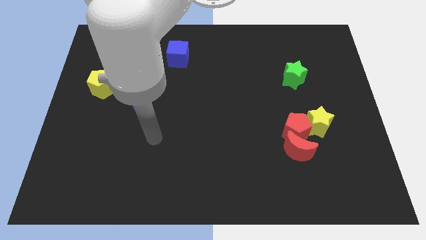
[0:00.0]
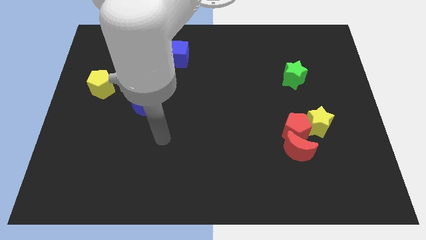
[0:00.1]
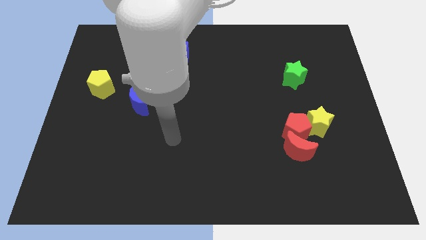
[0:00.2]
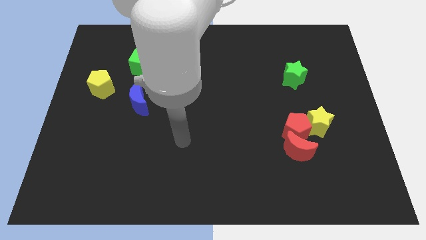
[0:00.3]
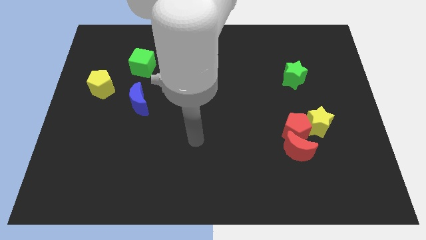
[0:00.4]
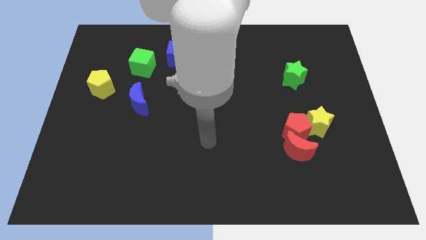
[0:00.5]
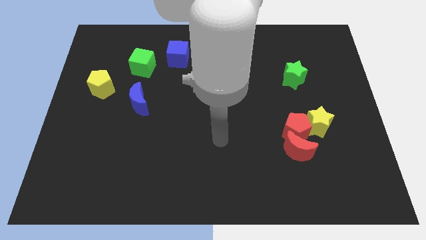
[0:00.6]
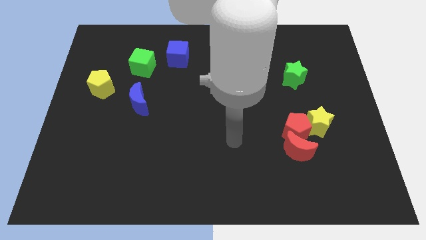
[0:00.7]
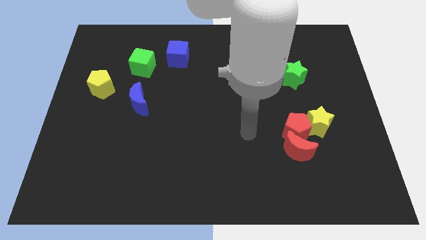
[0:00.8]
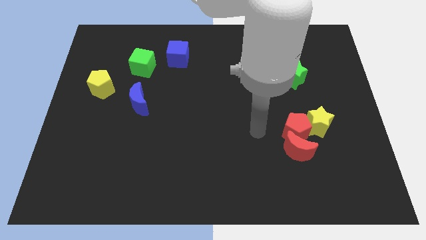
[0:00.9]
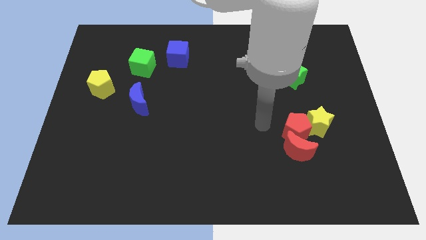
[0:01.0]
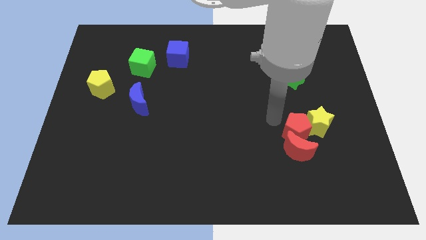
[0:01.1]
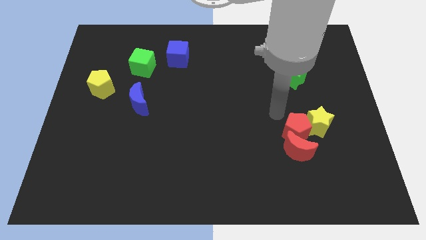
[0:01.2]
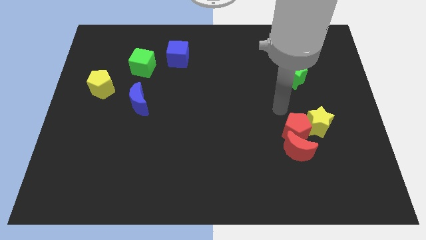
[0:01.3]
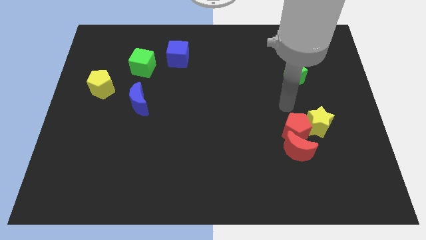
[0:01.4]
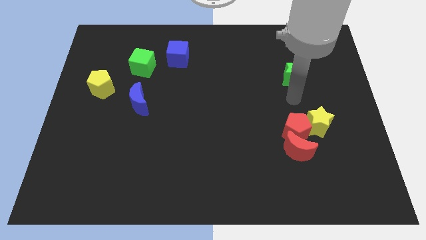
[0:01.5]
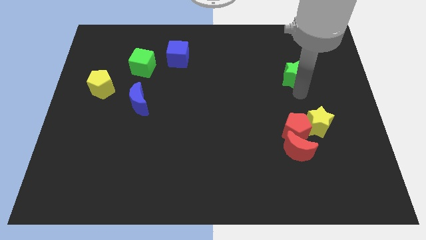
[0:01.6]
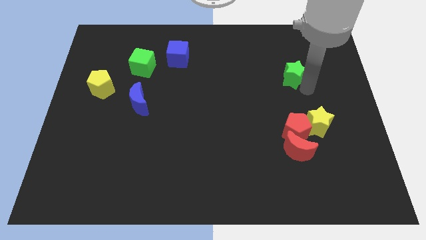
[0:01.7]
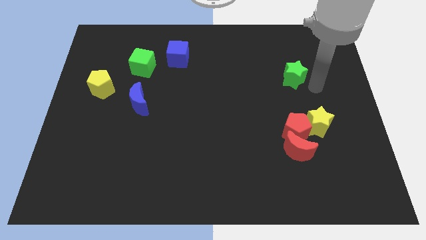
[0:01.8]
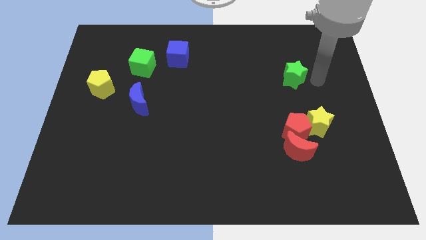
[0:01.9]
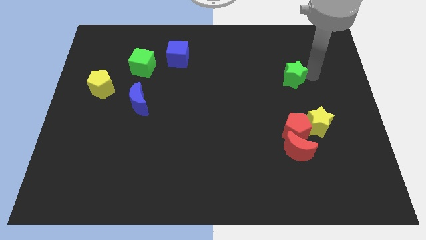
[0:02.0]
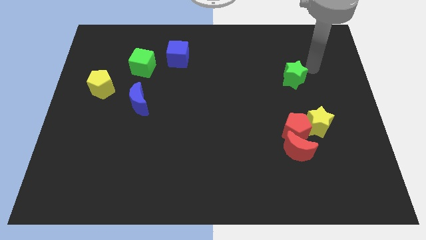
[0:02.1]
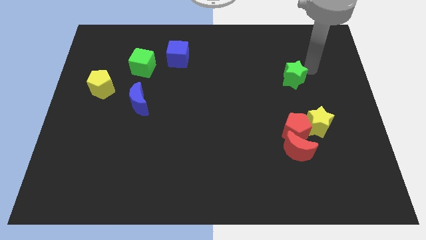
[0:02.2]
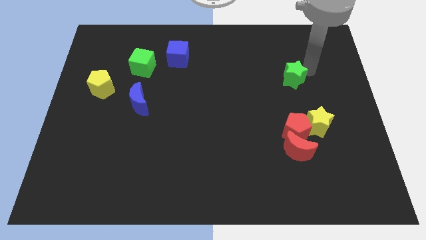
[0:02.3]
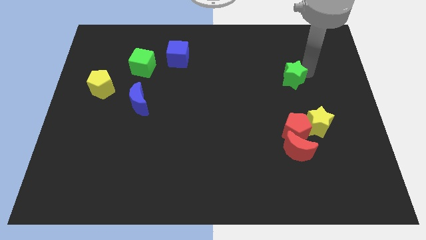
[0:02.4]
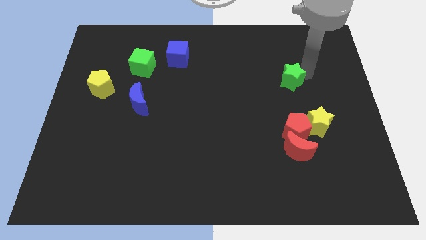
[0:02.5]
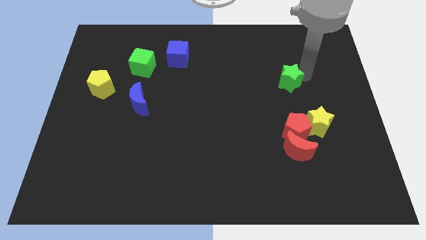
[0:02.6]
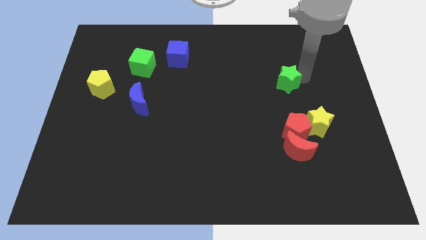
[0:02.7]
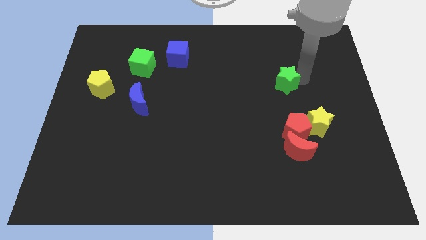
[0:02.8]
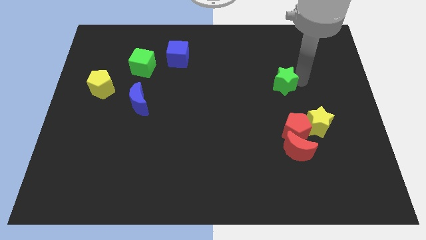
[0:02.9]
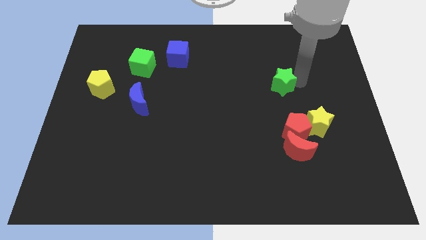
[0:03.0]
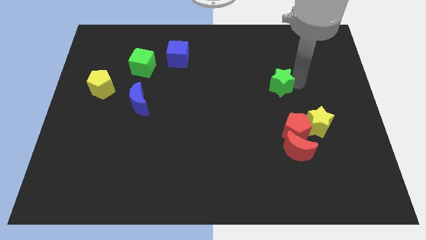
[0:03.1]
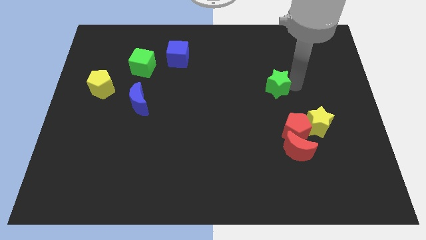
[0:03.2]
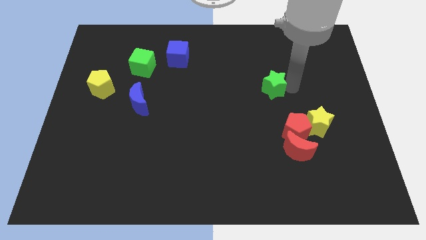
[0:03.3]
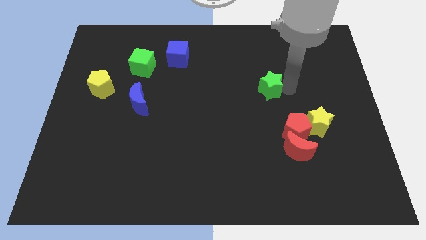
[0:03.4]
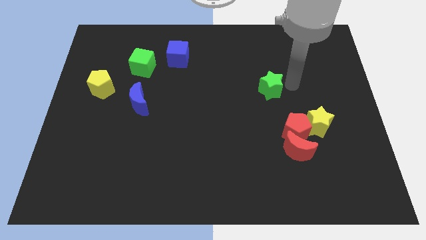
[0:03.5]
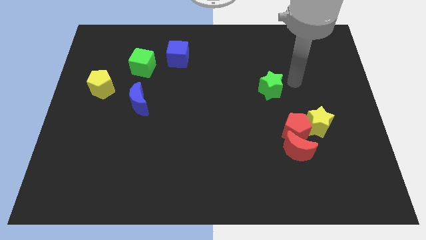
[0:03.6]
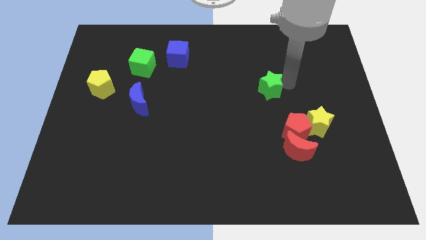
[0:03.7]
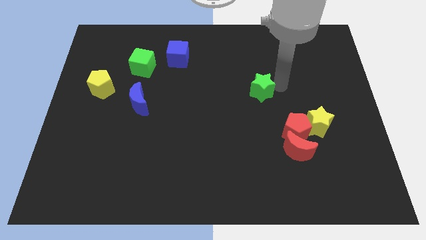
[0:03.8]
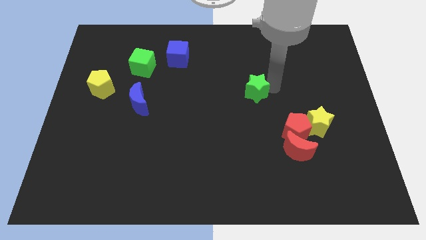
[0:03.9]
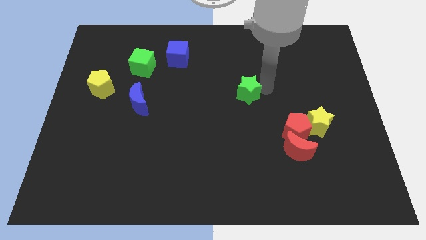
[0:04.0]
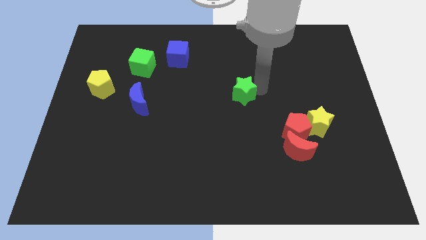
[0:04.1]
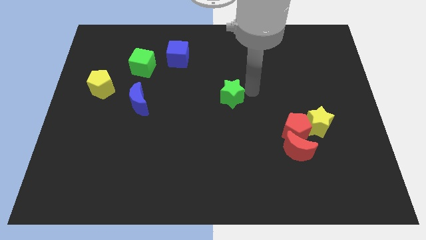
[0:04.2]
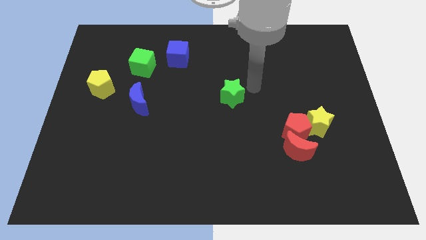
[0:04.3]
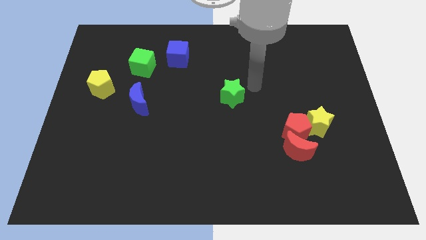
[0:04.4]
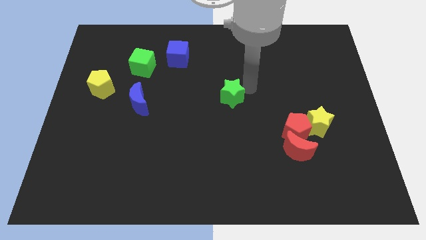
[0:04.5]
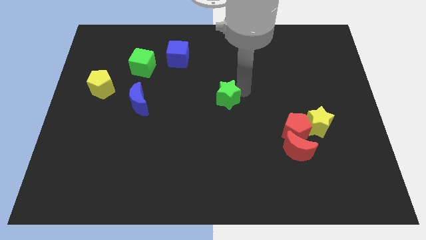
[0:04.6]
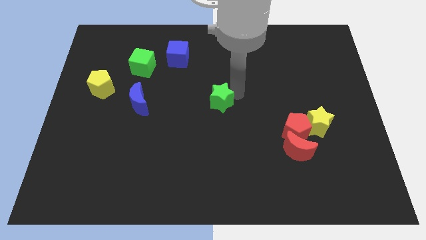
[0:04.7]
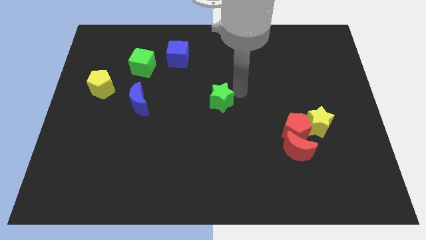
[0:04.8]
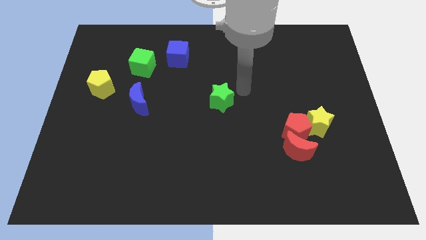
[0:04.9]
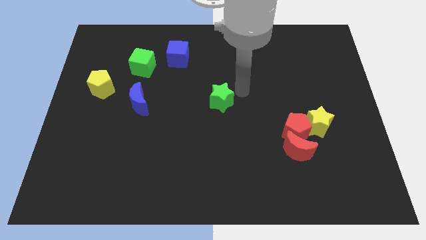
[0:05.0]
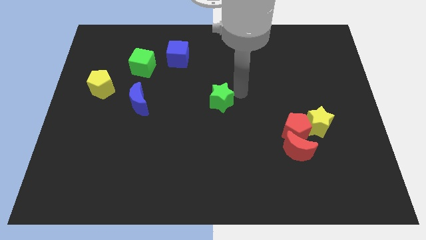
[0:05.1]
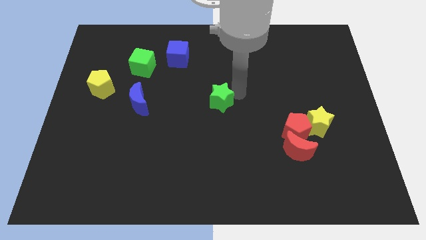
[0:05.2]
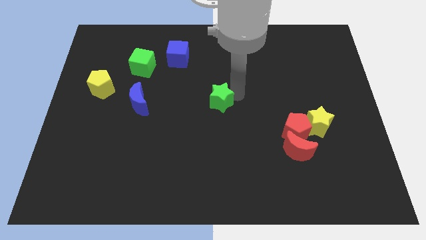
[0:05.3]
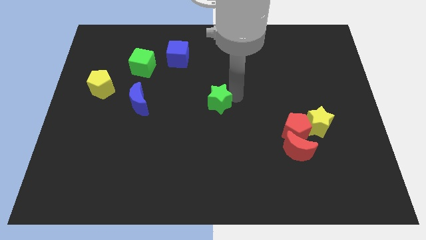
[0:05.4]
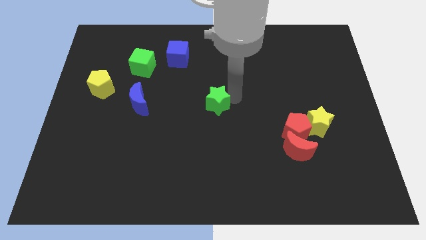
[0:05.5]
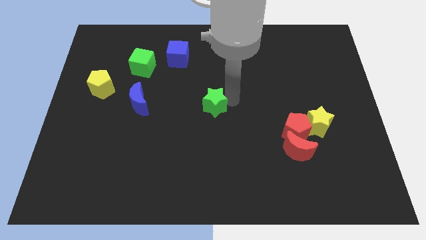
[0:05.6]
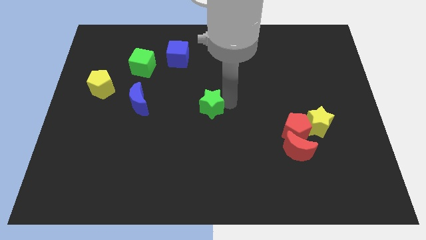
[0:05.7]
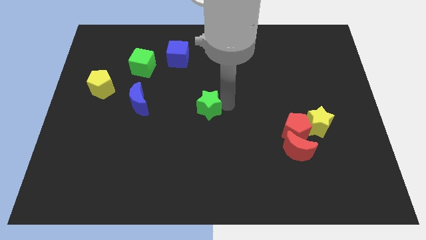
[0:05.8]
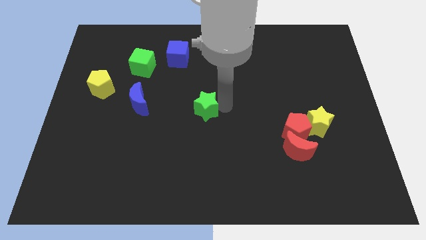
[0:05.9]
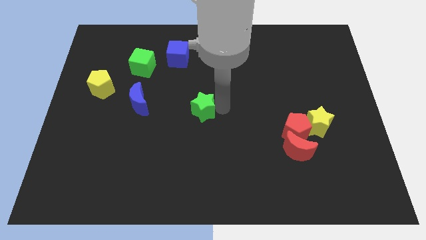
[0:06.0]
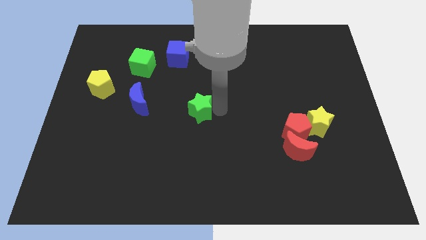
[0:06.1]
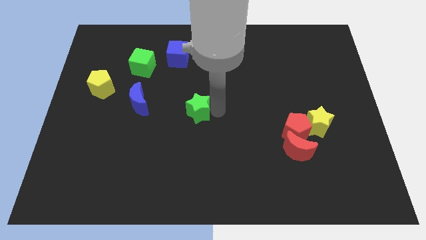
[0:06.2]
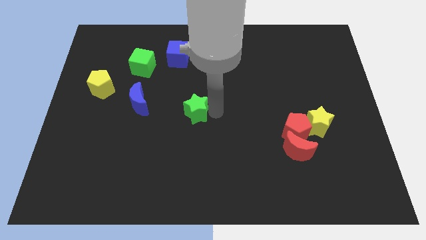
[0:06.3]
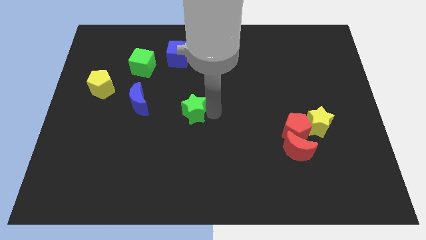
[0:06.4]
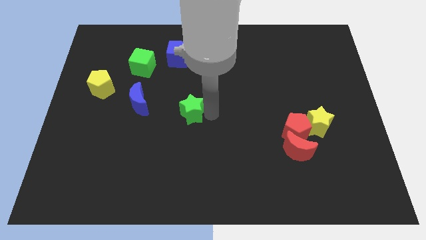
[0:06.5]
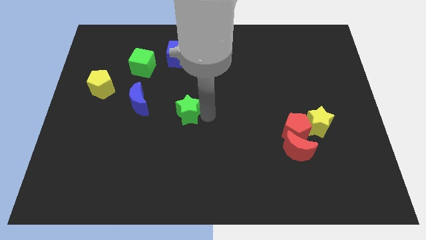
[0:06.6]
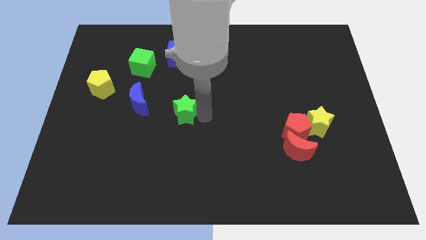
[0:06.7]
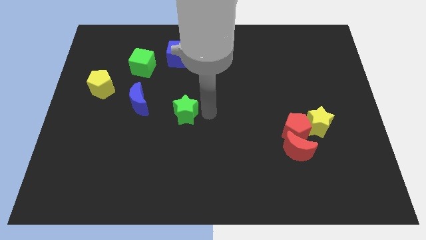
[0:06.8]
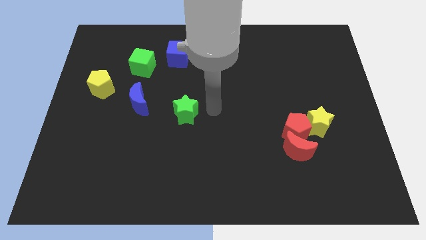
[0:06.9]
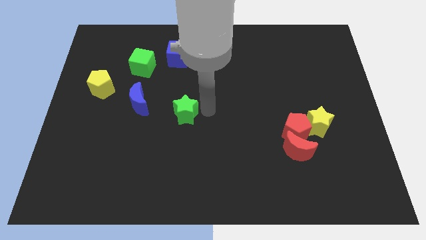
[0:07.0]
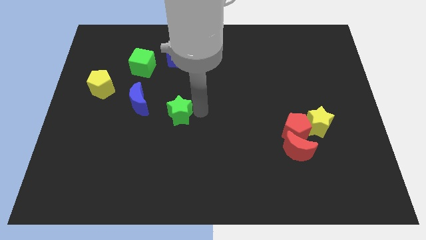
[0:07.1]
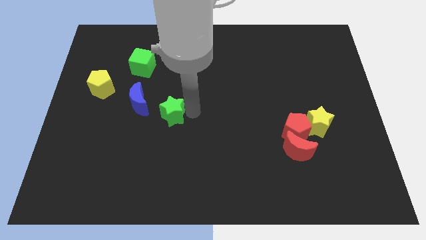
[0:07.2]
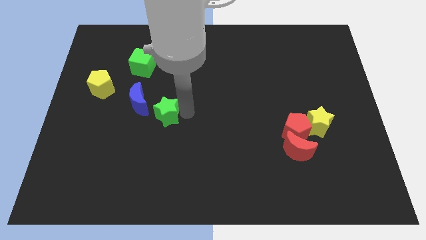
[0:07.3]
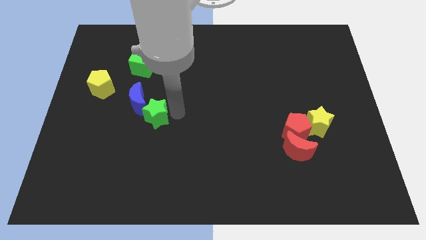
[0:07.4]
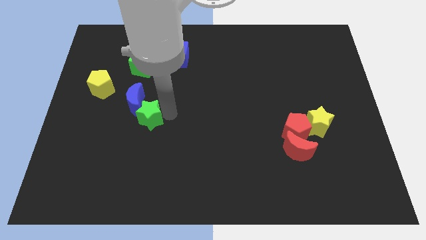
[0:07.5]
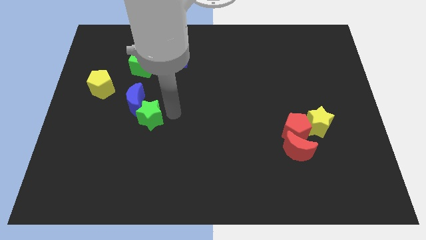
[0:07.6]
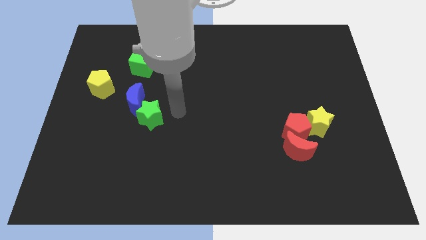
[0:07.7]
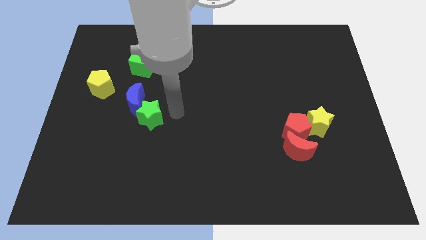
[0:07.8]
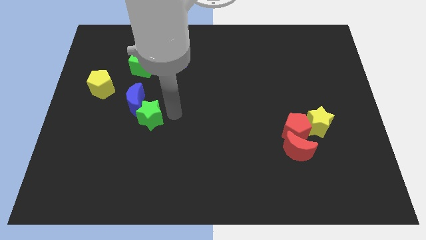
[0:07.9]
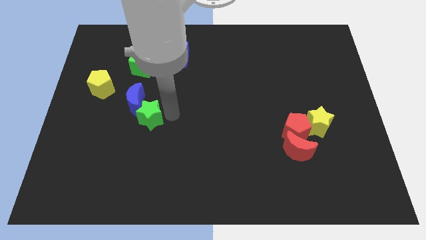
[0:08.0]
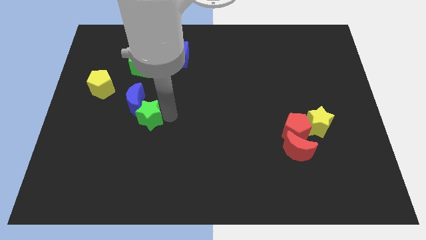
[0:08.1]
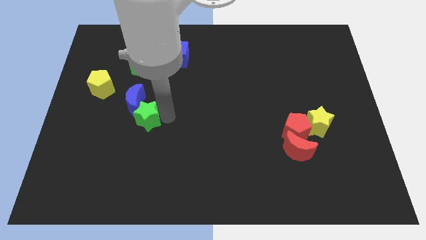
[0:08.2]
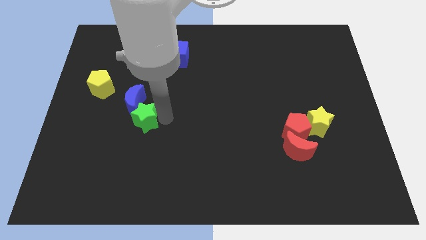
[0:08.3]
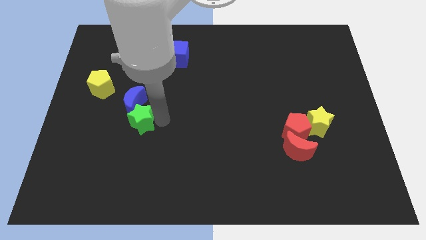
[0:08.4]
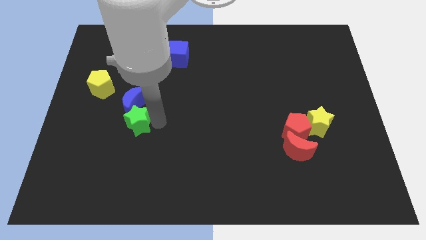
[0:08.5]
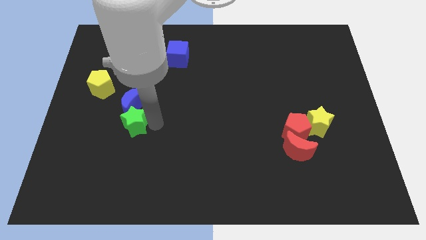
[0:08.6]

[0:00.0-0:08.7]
push the green star diagonally down and to the left of the blue moon
